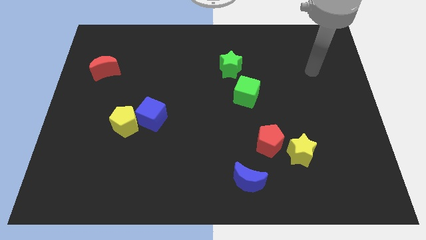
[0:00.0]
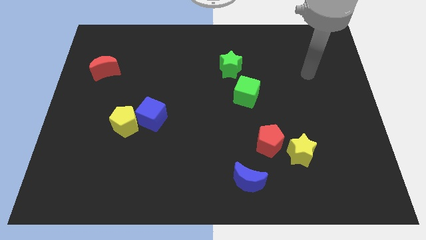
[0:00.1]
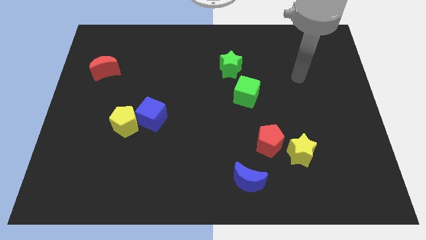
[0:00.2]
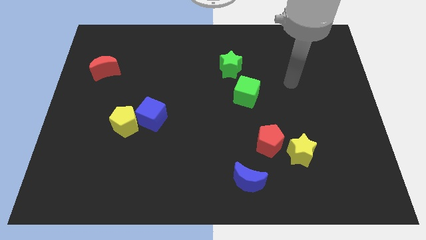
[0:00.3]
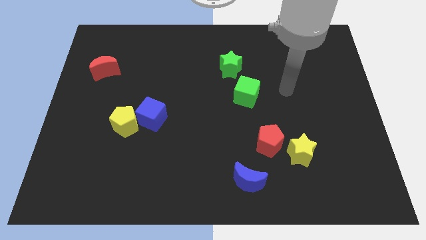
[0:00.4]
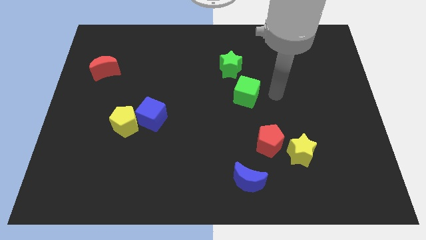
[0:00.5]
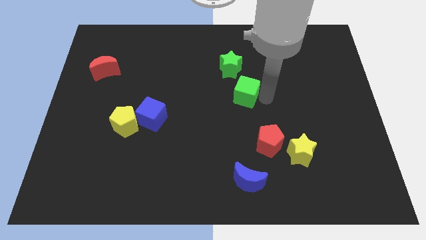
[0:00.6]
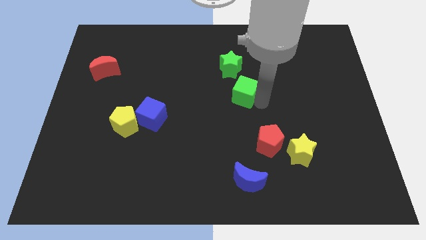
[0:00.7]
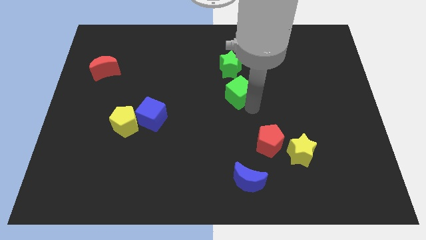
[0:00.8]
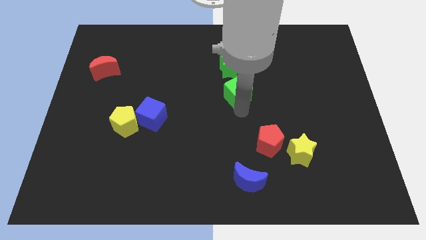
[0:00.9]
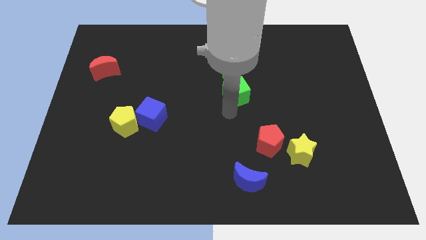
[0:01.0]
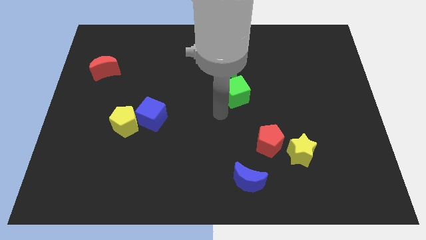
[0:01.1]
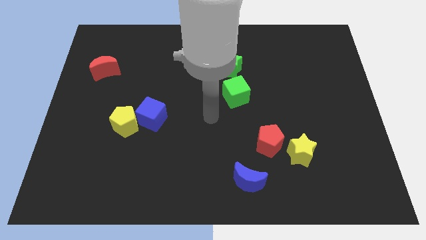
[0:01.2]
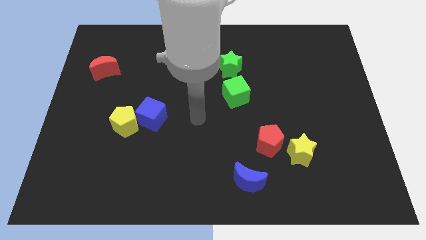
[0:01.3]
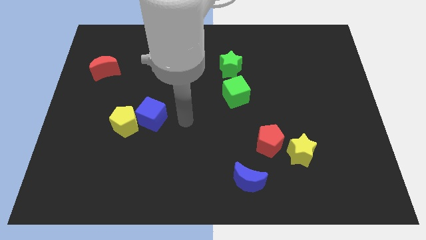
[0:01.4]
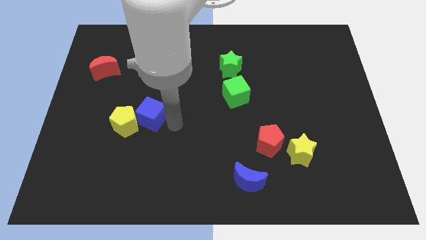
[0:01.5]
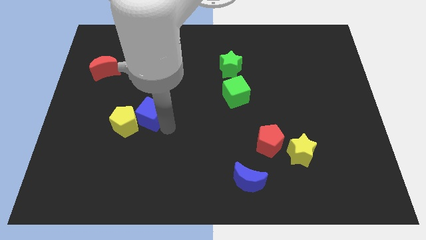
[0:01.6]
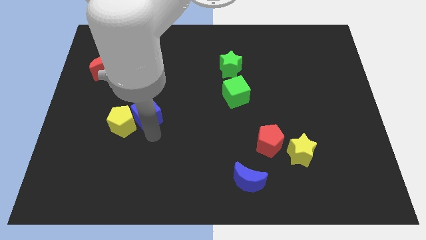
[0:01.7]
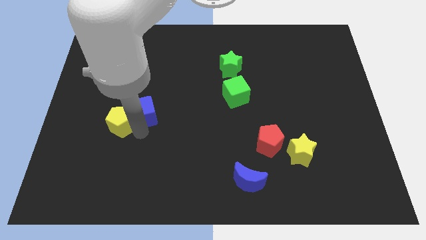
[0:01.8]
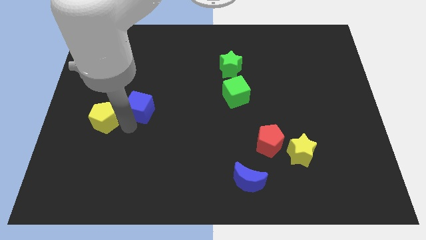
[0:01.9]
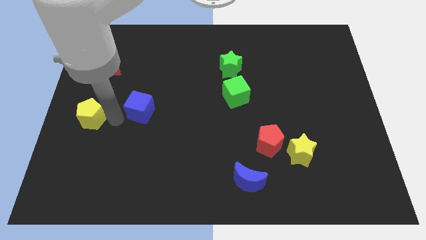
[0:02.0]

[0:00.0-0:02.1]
pull the blue cube apart from the yellow pentagon

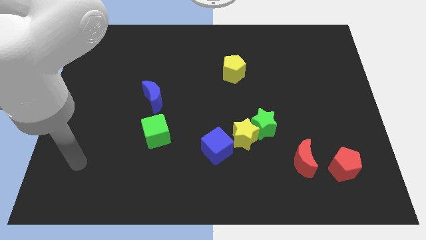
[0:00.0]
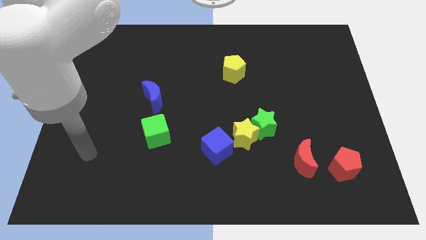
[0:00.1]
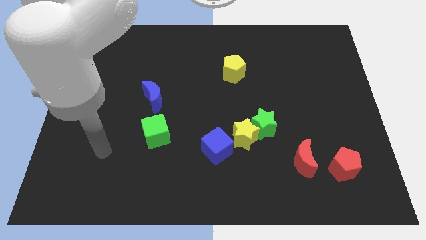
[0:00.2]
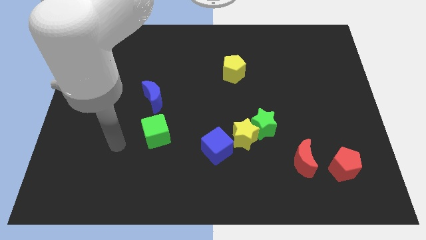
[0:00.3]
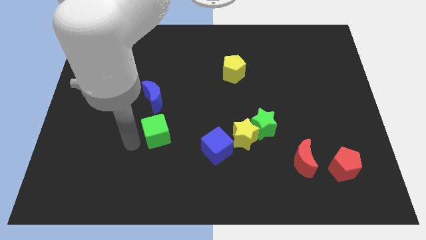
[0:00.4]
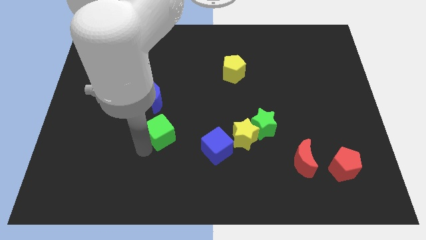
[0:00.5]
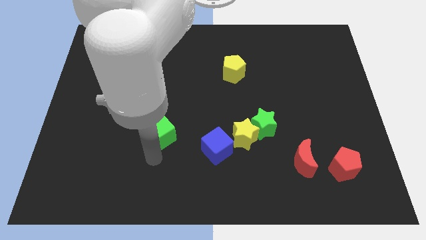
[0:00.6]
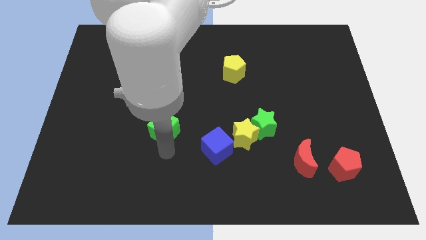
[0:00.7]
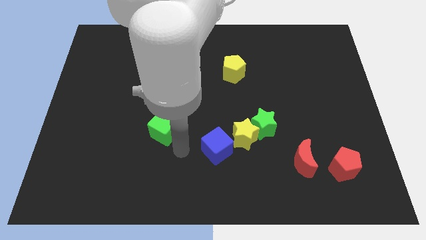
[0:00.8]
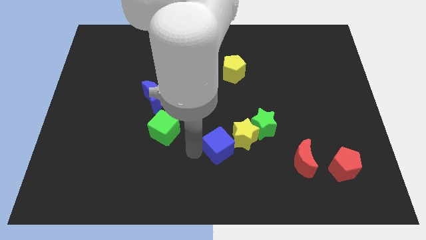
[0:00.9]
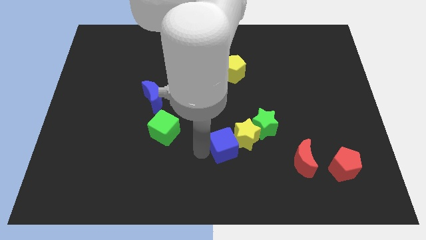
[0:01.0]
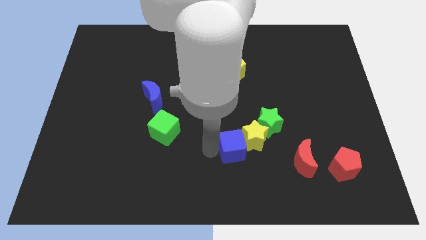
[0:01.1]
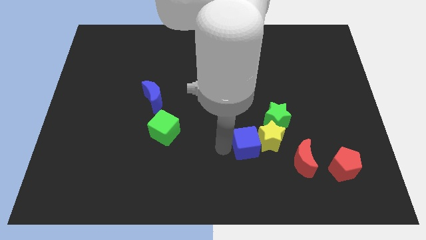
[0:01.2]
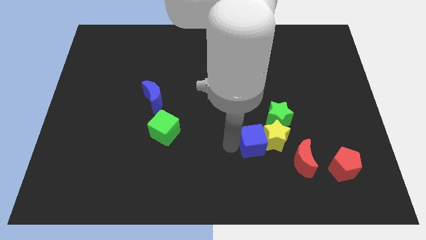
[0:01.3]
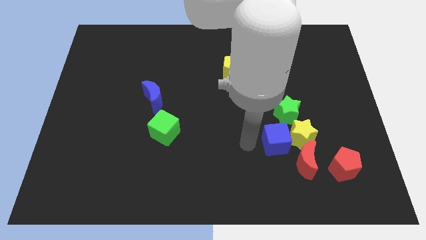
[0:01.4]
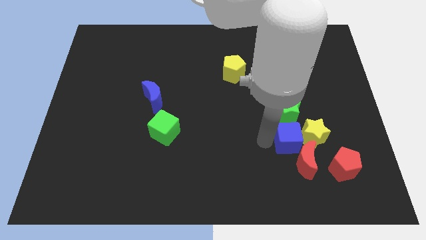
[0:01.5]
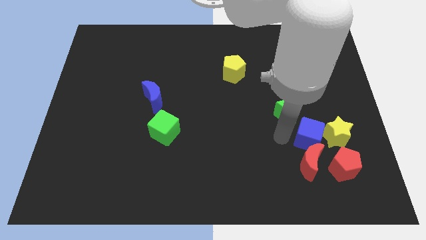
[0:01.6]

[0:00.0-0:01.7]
pull the green star apart from the yellow star

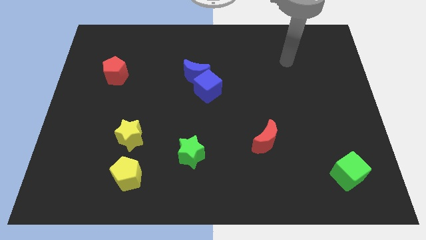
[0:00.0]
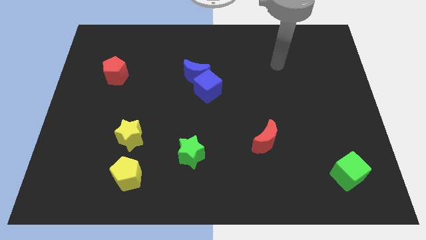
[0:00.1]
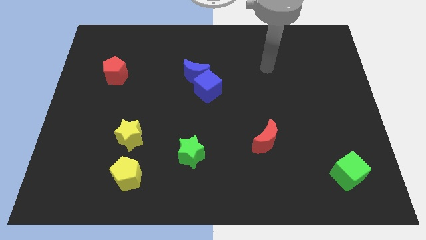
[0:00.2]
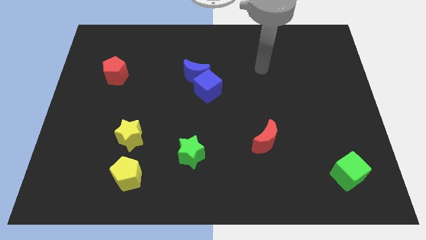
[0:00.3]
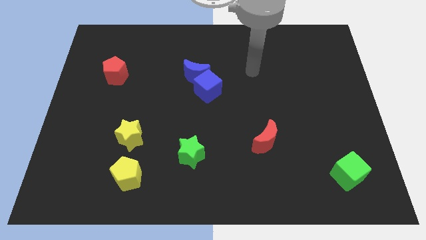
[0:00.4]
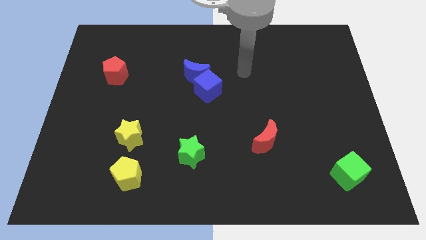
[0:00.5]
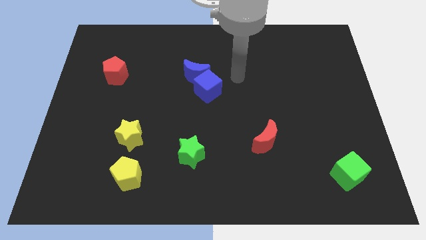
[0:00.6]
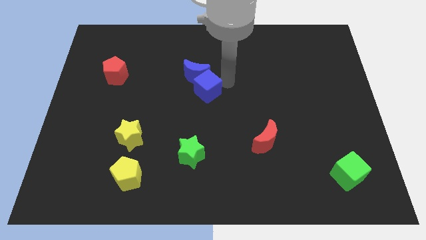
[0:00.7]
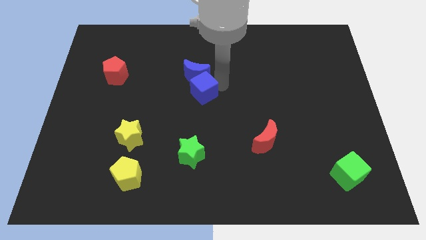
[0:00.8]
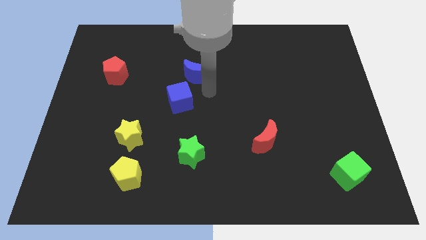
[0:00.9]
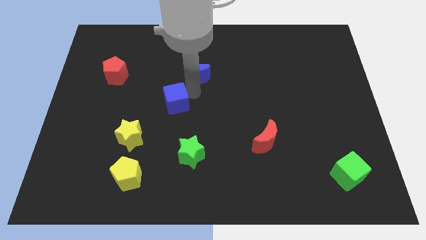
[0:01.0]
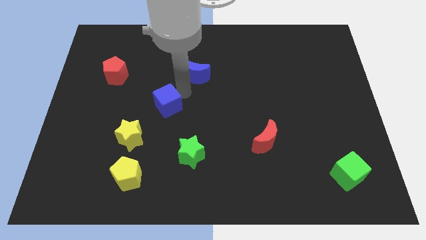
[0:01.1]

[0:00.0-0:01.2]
separate the blue moon from the blue cube

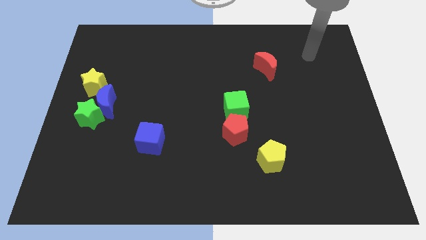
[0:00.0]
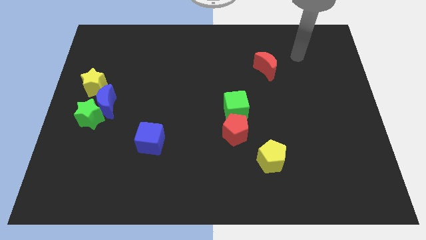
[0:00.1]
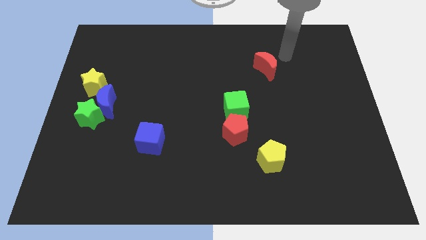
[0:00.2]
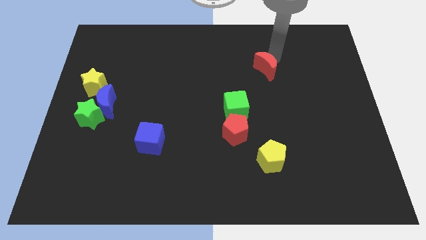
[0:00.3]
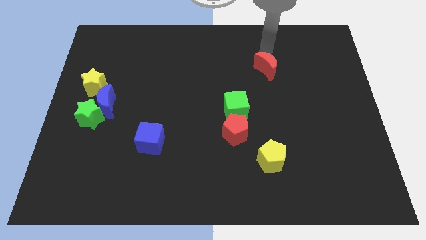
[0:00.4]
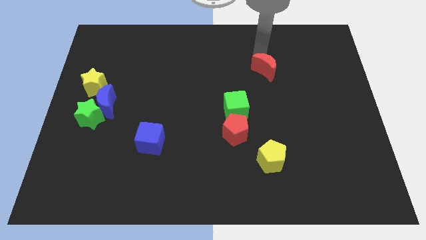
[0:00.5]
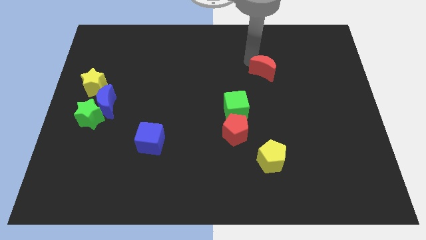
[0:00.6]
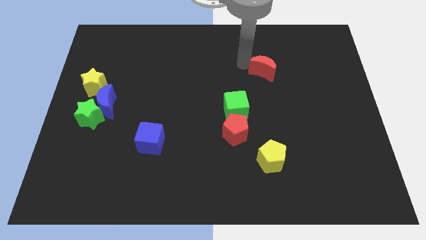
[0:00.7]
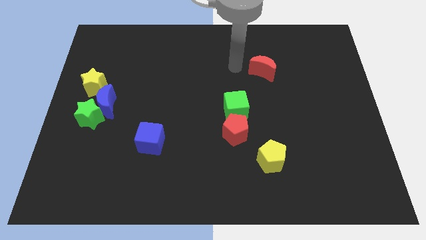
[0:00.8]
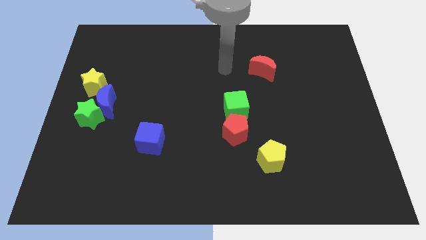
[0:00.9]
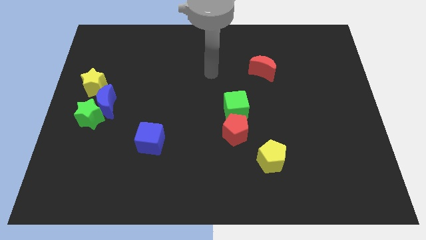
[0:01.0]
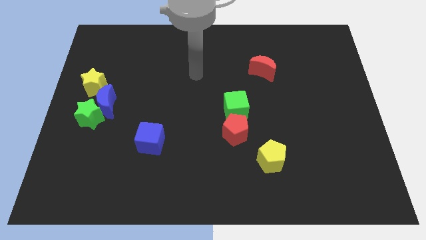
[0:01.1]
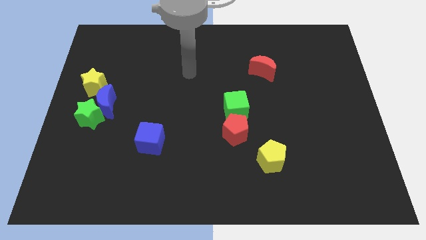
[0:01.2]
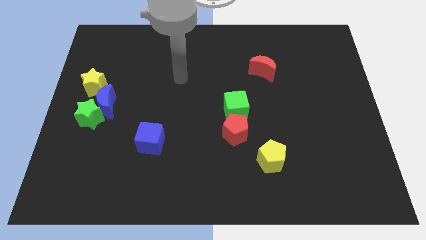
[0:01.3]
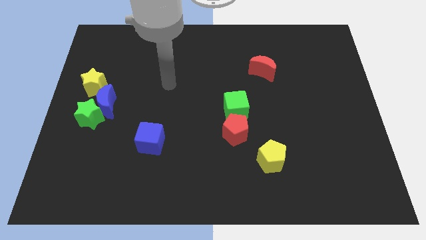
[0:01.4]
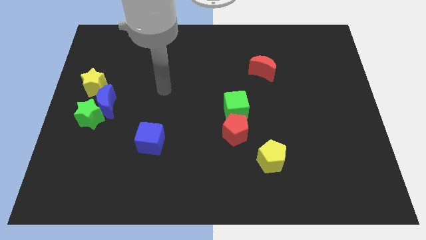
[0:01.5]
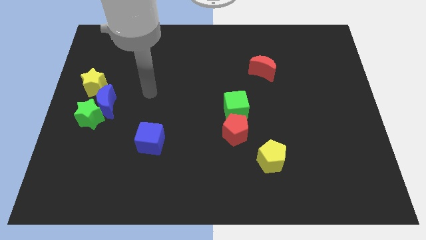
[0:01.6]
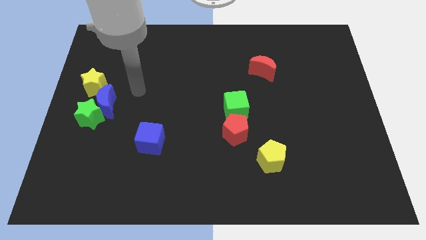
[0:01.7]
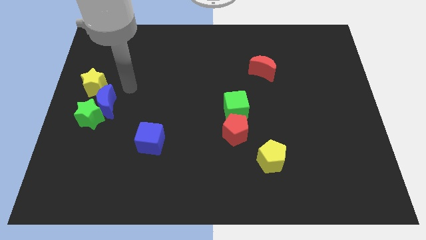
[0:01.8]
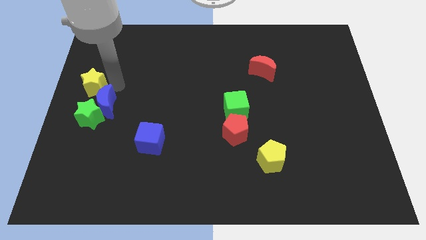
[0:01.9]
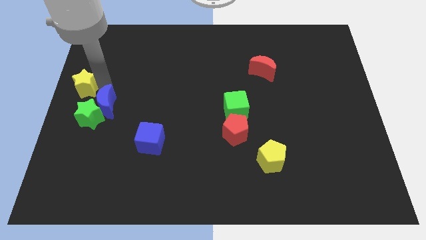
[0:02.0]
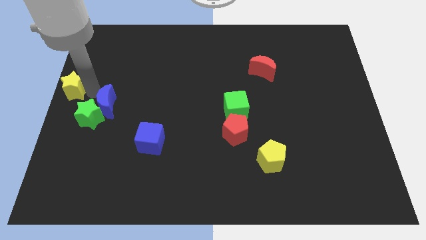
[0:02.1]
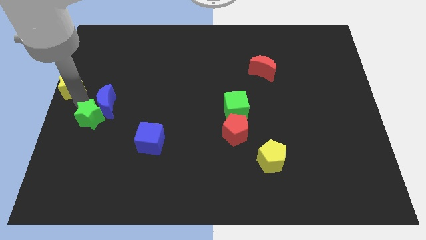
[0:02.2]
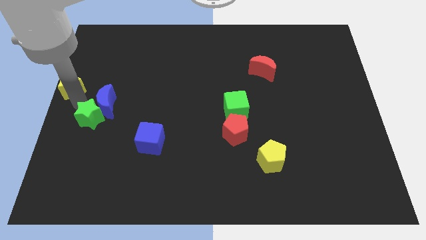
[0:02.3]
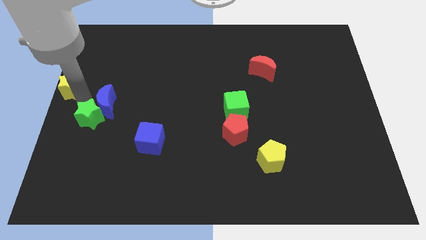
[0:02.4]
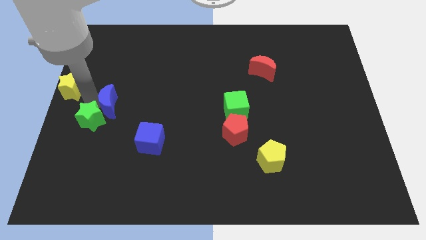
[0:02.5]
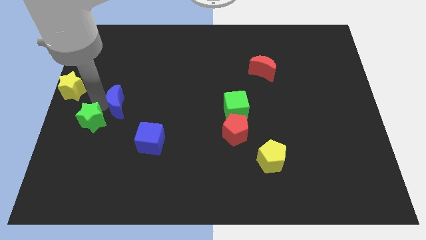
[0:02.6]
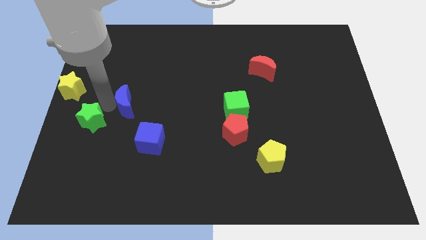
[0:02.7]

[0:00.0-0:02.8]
separate the blue moon from the green star and yellow star

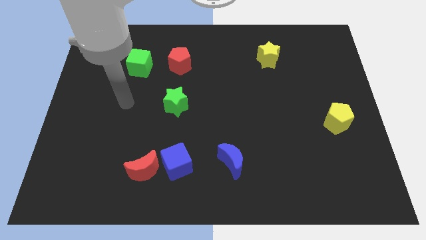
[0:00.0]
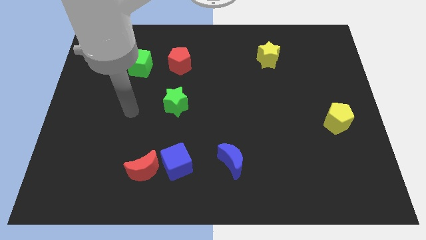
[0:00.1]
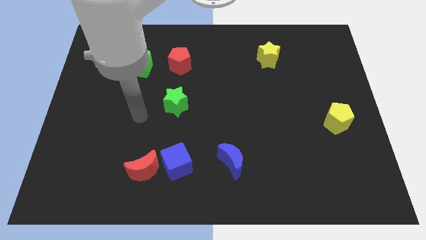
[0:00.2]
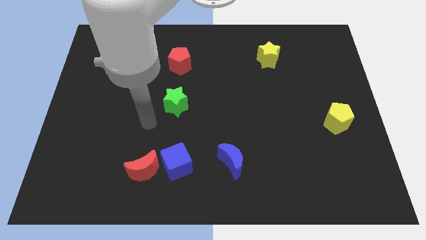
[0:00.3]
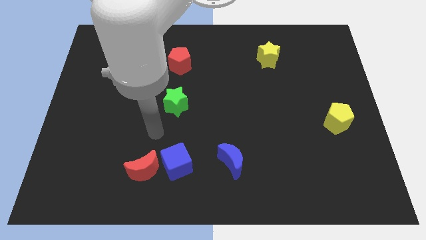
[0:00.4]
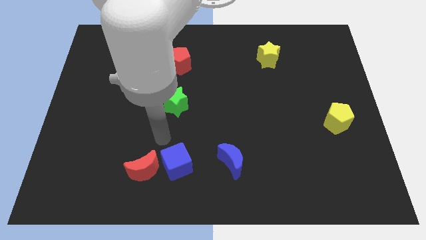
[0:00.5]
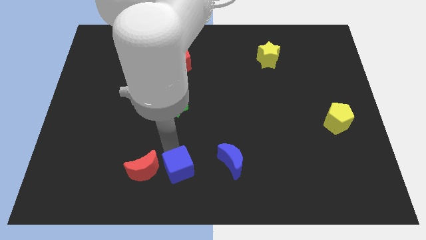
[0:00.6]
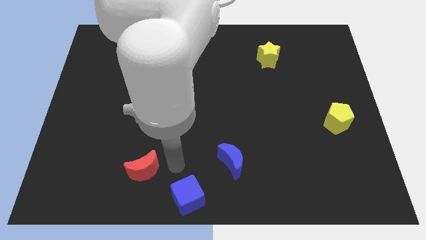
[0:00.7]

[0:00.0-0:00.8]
separate the red moon from the blue cube

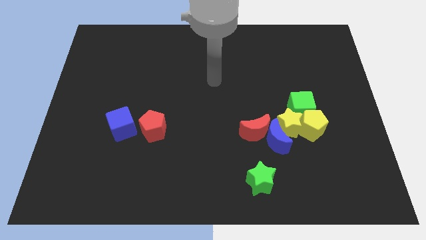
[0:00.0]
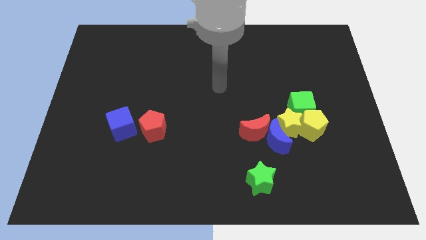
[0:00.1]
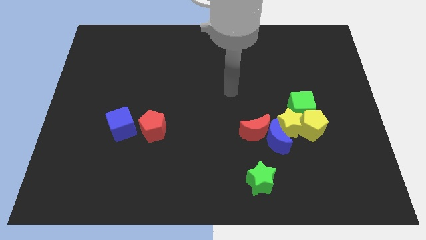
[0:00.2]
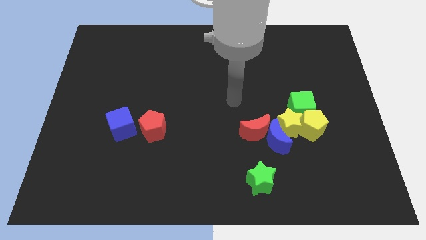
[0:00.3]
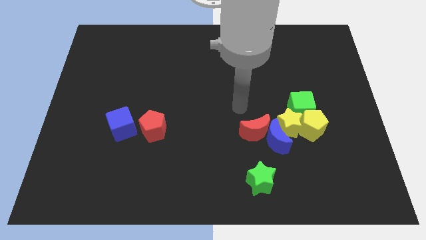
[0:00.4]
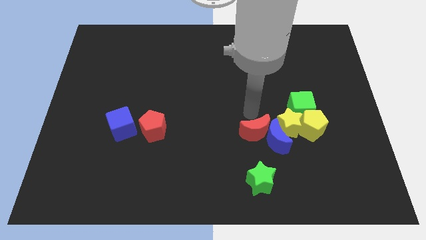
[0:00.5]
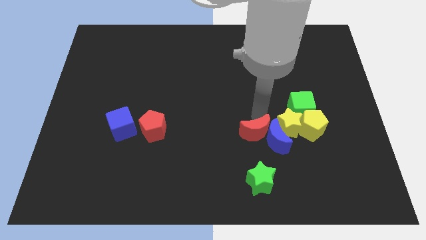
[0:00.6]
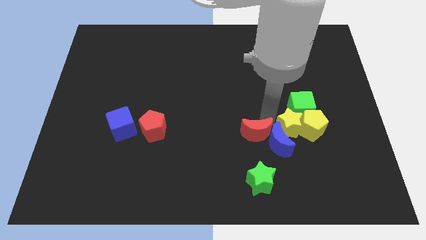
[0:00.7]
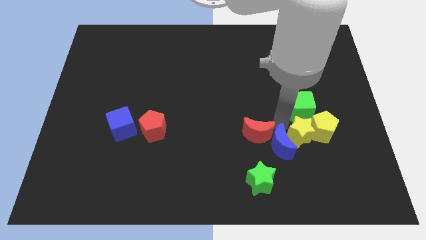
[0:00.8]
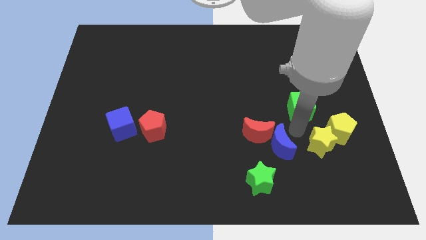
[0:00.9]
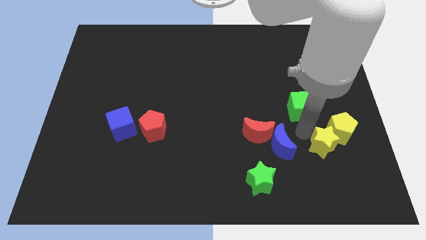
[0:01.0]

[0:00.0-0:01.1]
move the green cube away from the yellow pentagon and yellow star
